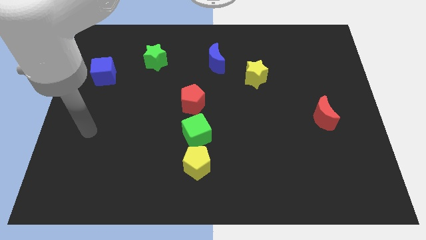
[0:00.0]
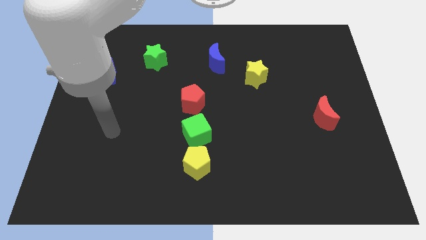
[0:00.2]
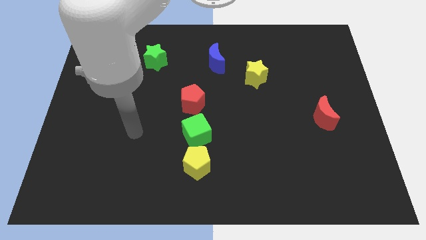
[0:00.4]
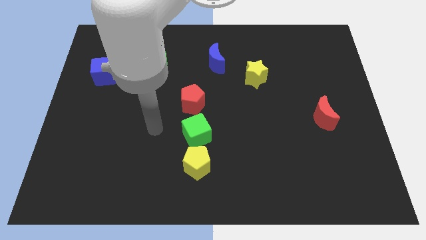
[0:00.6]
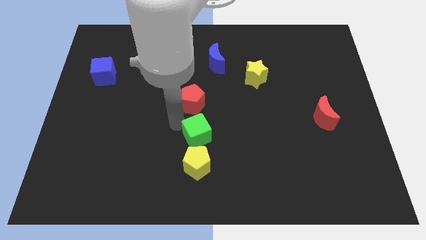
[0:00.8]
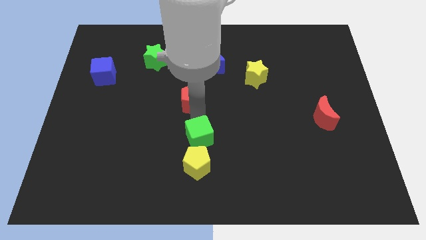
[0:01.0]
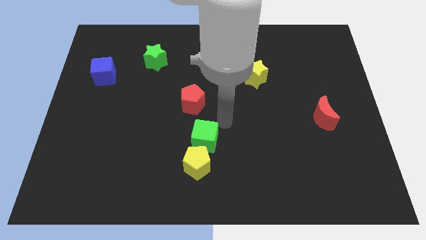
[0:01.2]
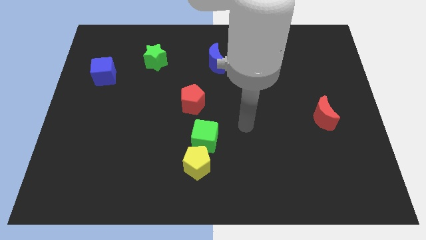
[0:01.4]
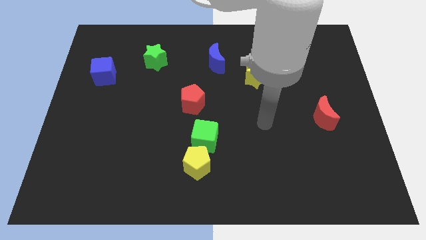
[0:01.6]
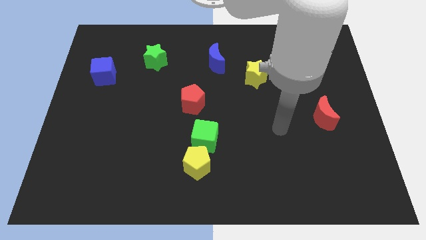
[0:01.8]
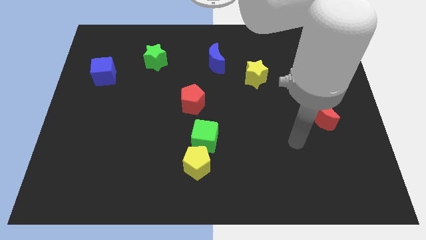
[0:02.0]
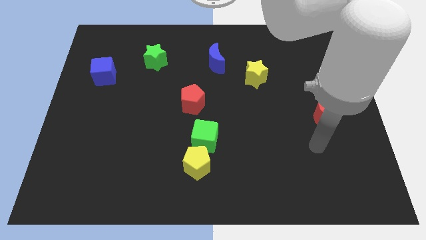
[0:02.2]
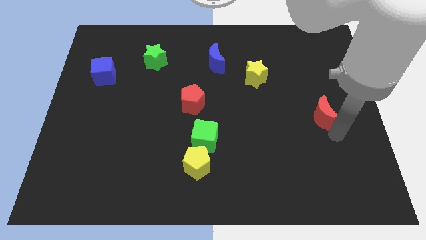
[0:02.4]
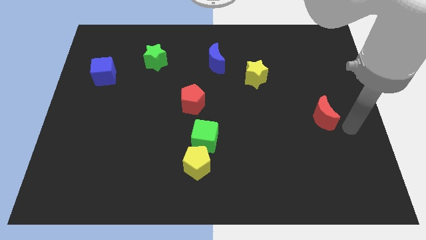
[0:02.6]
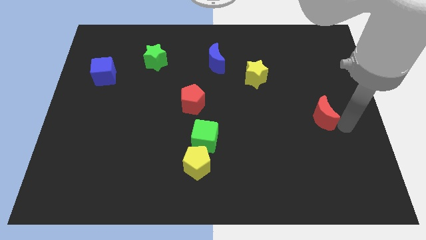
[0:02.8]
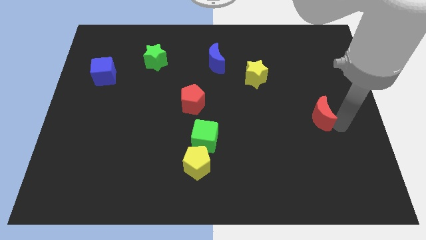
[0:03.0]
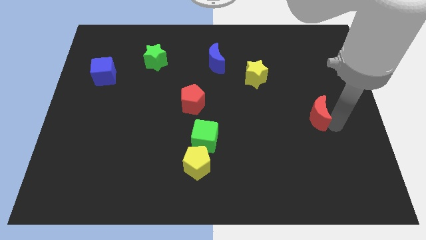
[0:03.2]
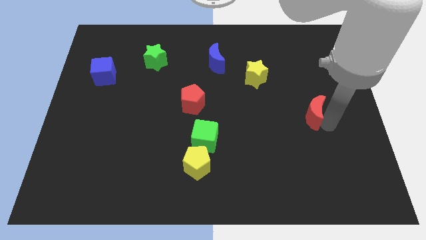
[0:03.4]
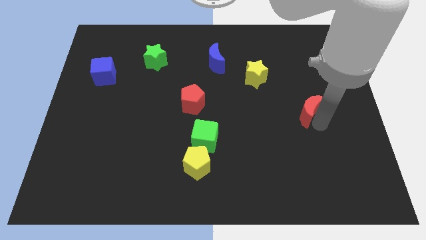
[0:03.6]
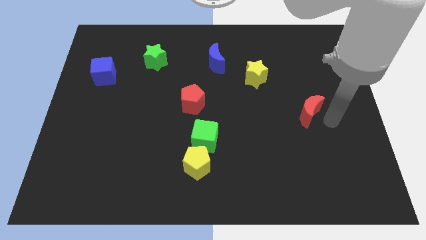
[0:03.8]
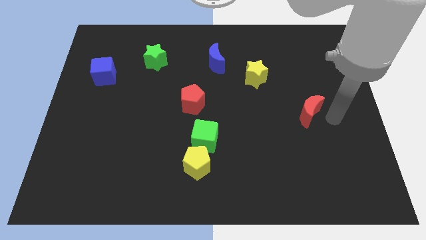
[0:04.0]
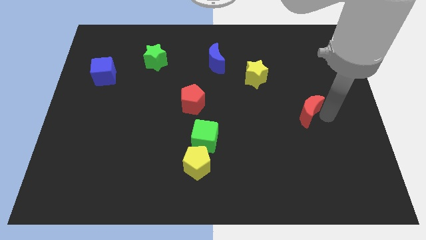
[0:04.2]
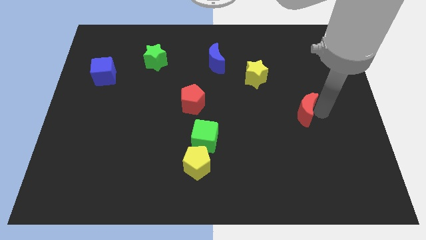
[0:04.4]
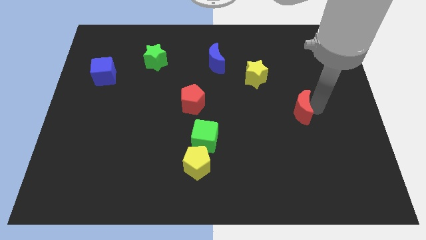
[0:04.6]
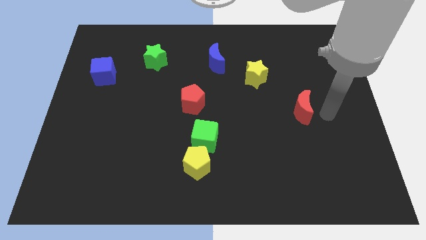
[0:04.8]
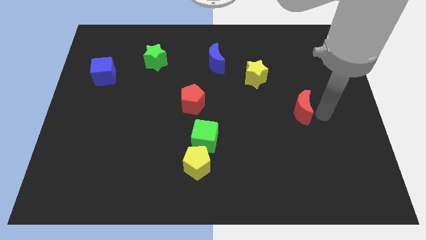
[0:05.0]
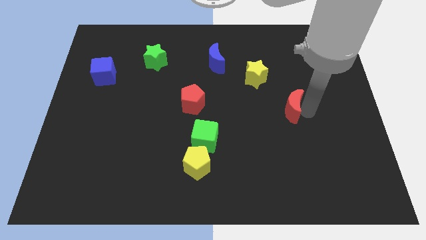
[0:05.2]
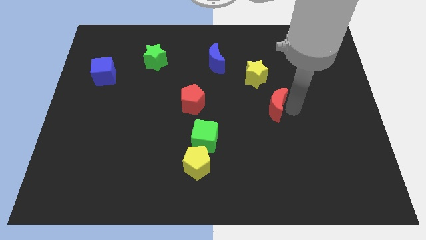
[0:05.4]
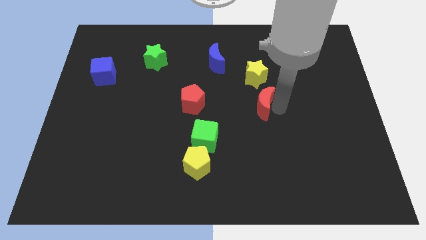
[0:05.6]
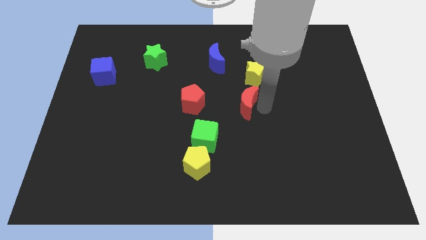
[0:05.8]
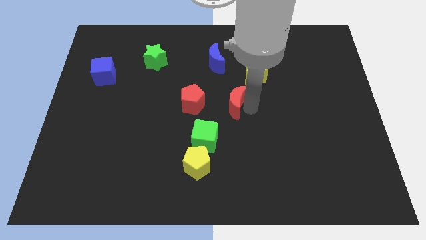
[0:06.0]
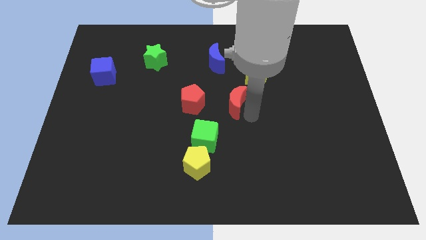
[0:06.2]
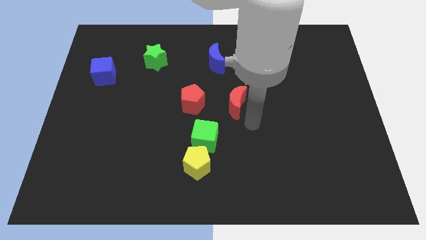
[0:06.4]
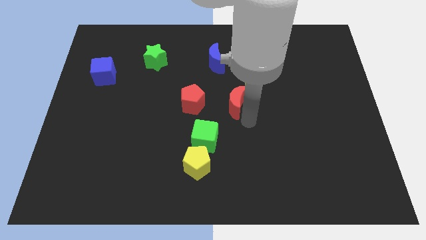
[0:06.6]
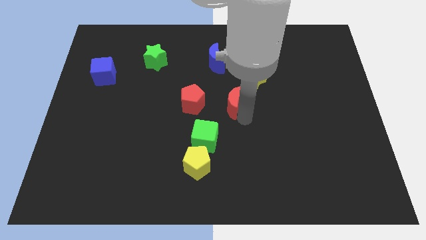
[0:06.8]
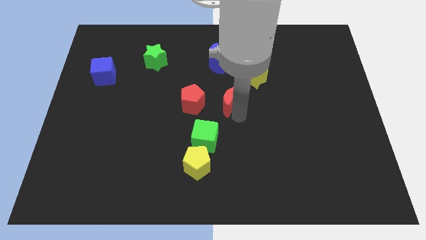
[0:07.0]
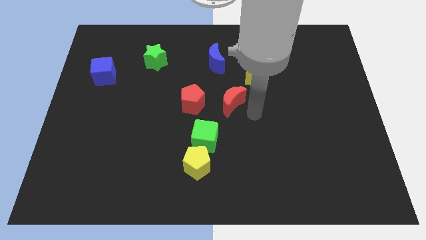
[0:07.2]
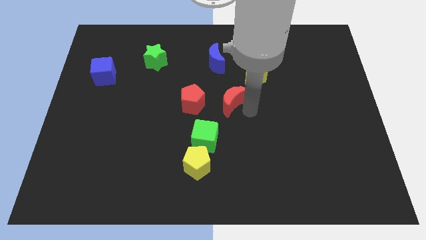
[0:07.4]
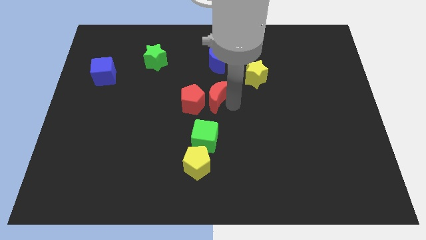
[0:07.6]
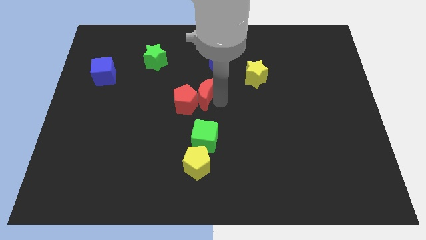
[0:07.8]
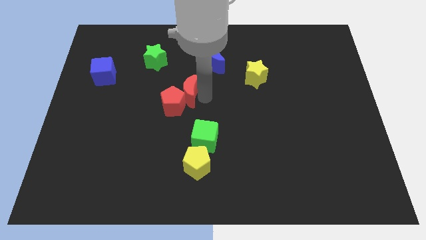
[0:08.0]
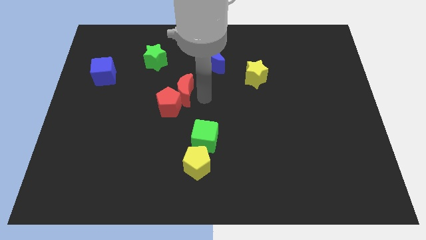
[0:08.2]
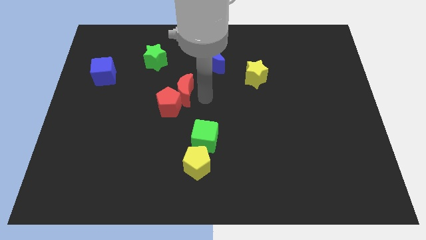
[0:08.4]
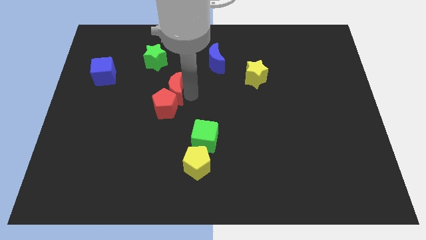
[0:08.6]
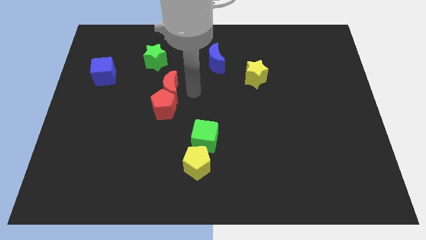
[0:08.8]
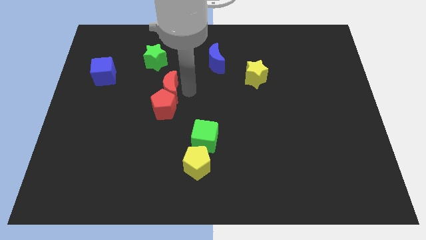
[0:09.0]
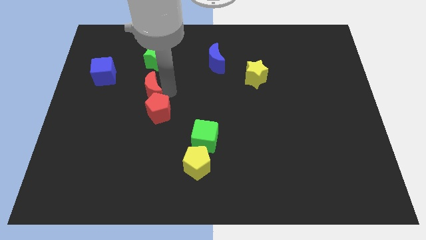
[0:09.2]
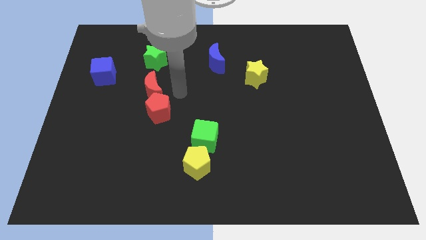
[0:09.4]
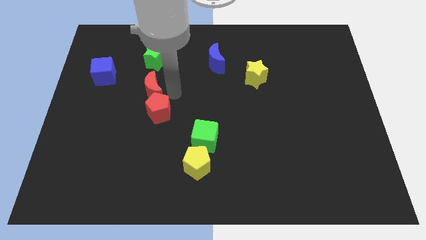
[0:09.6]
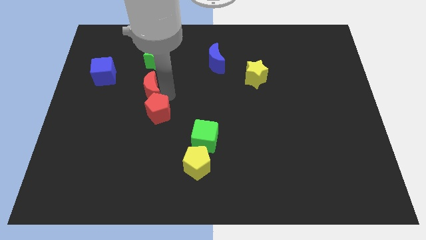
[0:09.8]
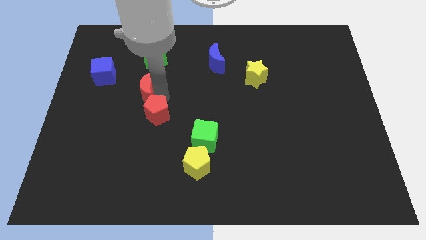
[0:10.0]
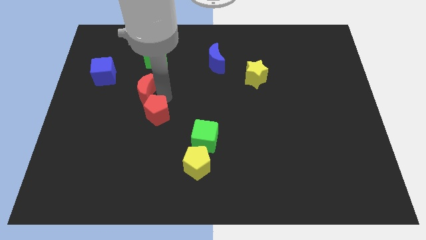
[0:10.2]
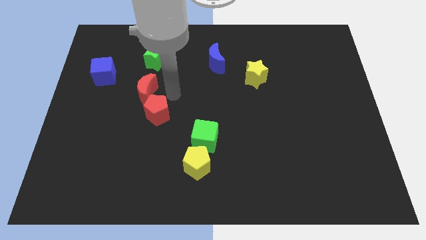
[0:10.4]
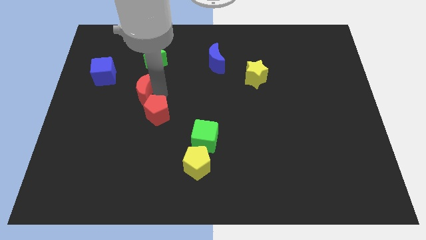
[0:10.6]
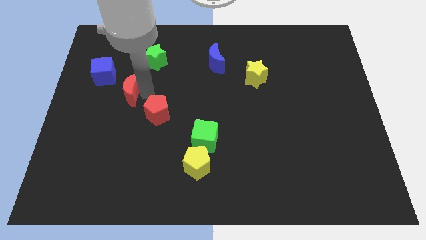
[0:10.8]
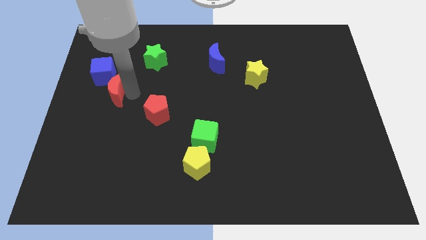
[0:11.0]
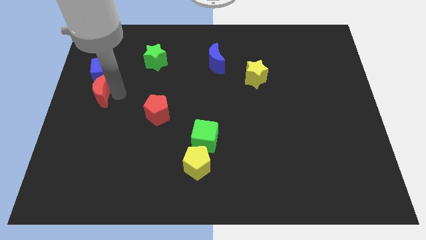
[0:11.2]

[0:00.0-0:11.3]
slide the red moon to the left side

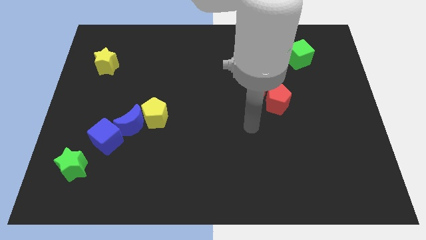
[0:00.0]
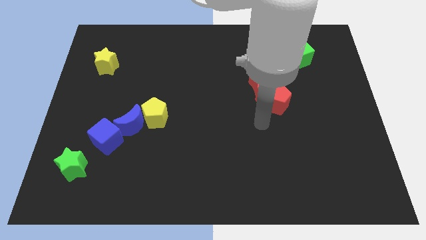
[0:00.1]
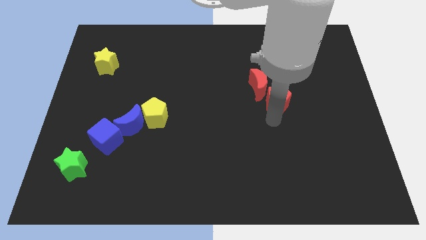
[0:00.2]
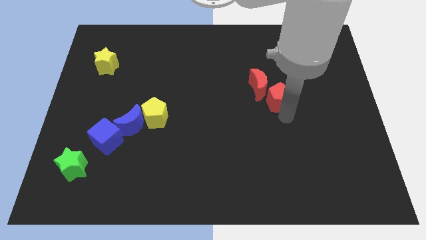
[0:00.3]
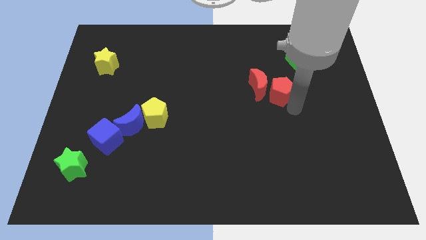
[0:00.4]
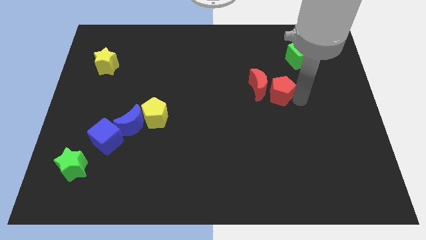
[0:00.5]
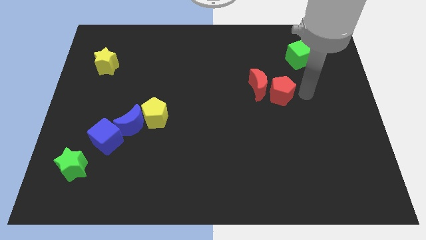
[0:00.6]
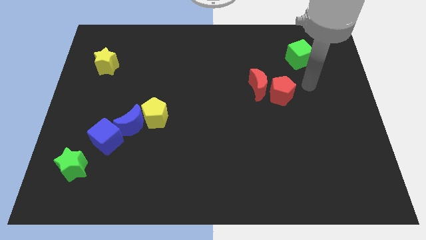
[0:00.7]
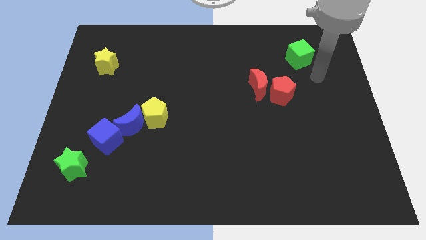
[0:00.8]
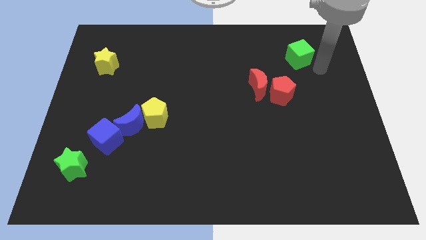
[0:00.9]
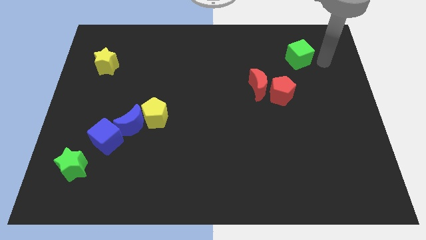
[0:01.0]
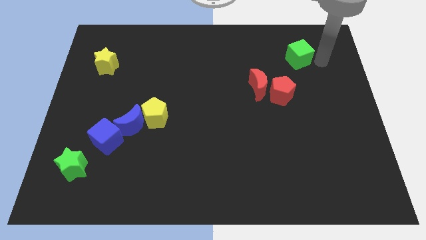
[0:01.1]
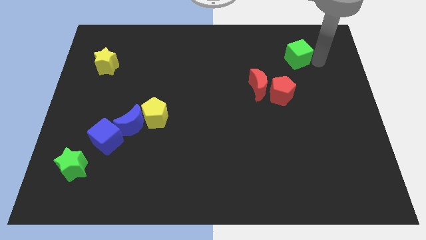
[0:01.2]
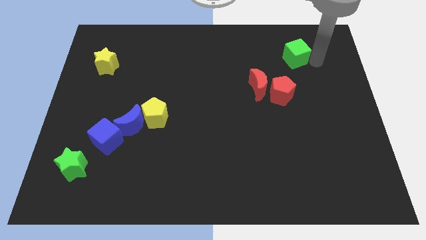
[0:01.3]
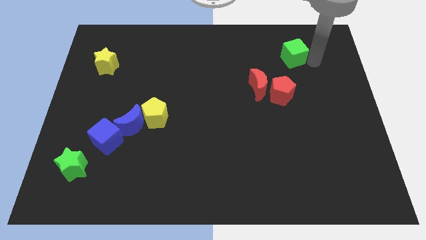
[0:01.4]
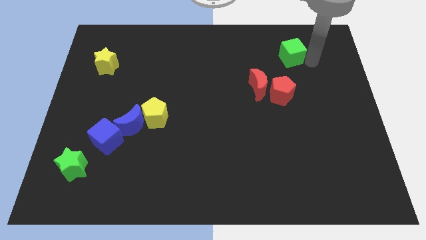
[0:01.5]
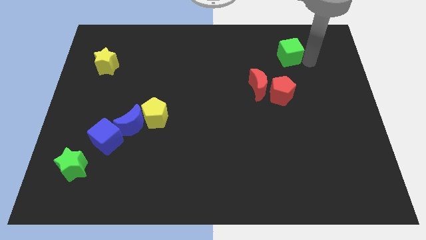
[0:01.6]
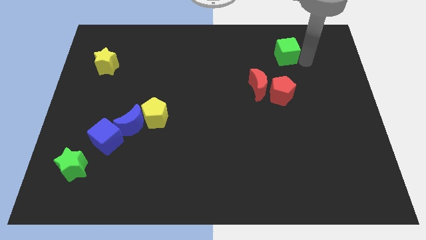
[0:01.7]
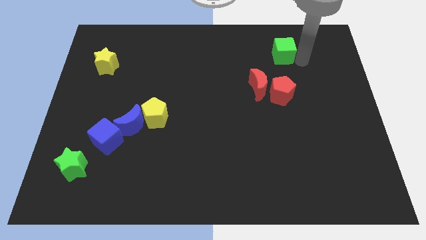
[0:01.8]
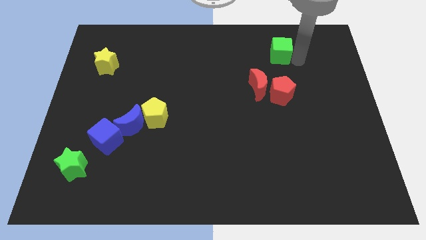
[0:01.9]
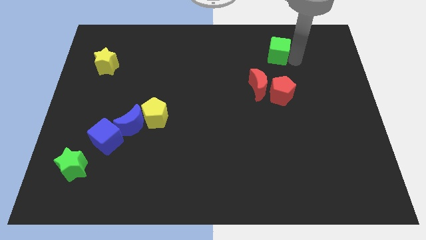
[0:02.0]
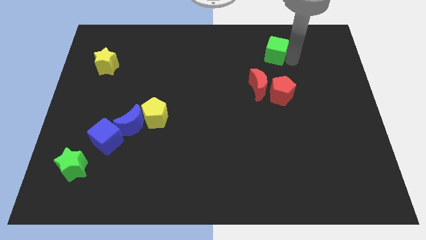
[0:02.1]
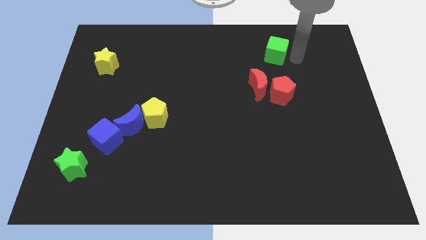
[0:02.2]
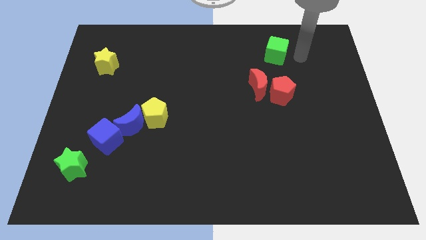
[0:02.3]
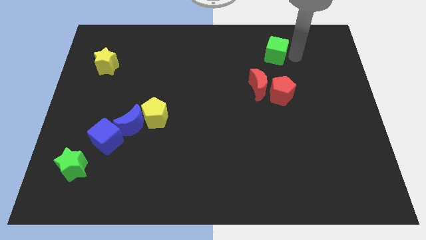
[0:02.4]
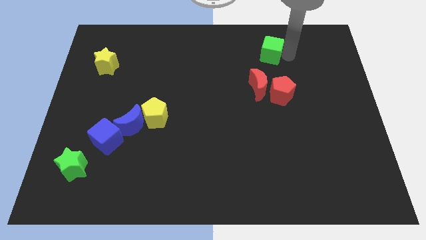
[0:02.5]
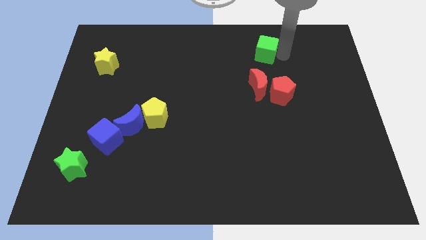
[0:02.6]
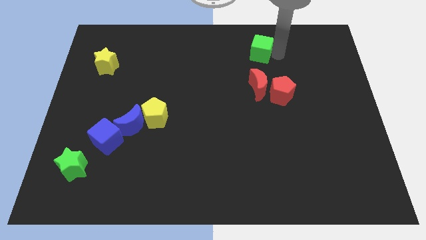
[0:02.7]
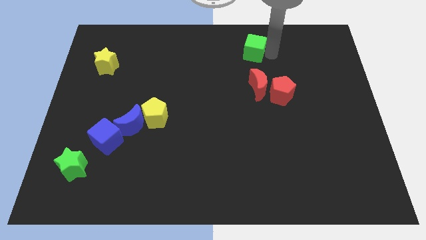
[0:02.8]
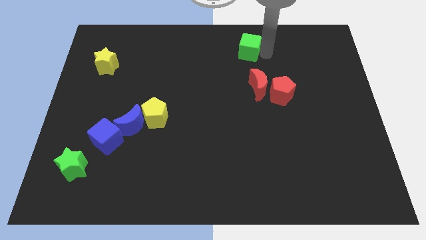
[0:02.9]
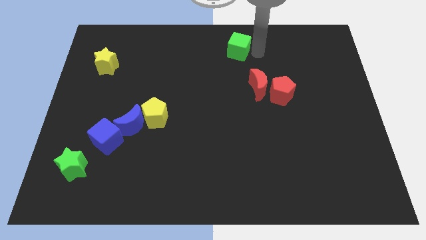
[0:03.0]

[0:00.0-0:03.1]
push the green cube to the top
